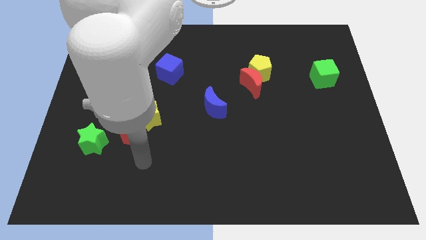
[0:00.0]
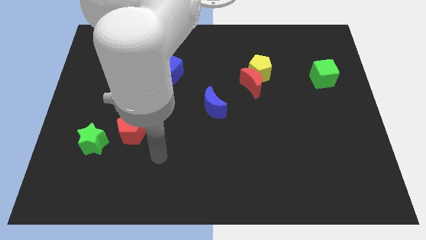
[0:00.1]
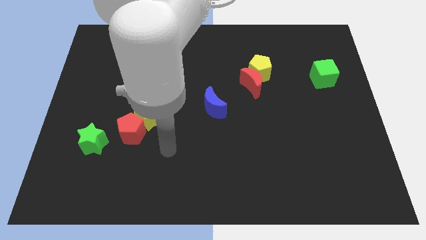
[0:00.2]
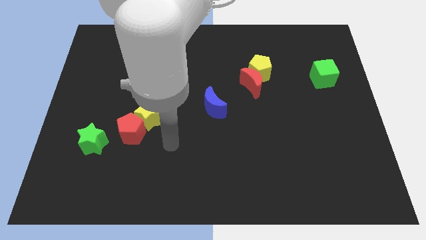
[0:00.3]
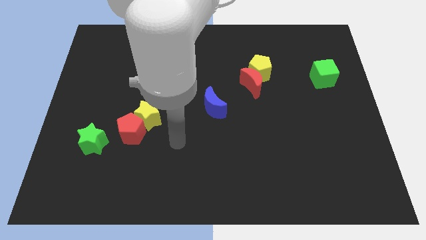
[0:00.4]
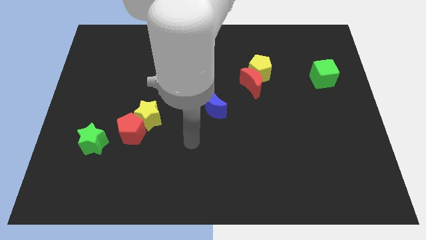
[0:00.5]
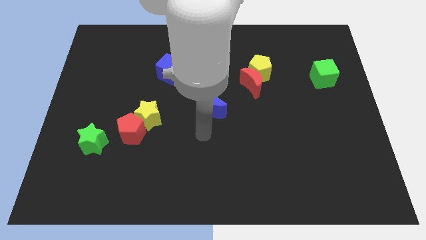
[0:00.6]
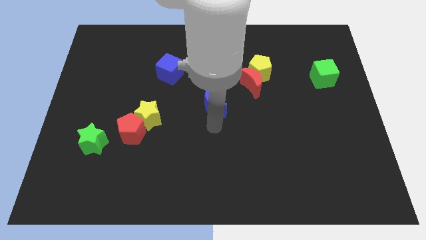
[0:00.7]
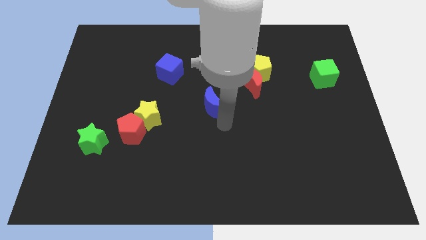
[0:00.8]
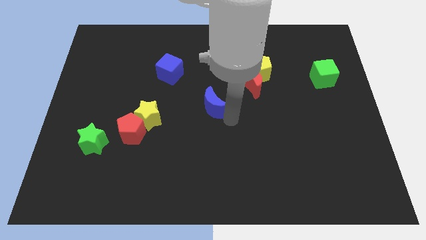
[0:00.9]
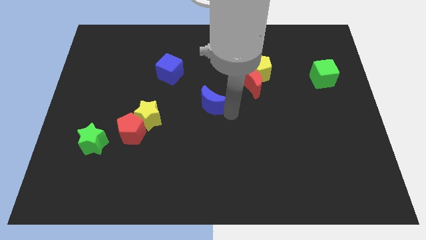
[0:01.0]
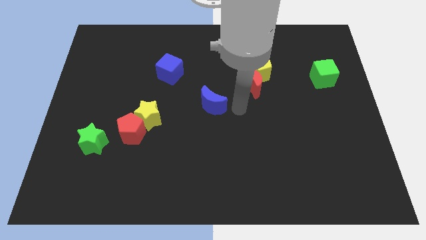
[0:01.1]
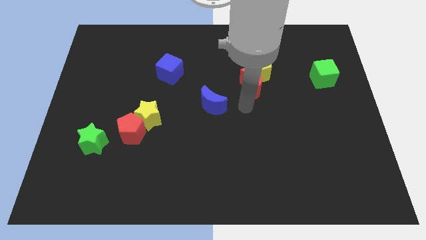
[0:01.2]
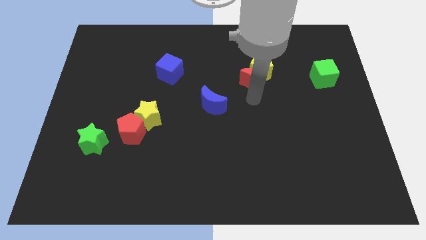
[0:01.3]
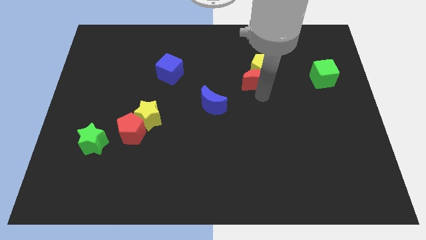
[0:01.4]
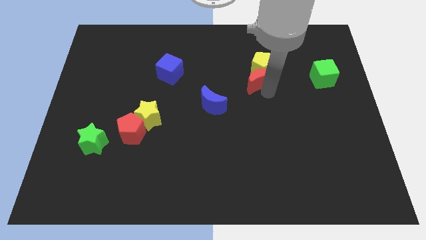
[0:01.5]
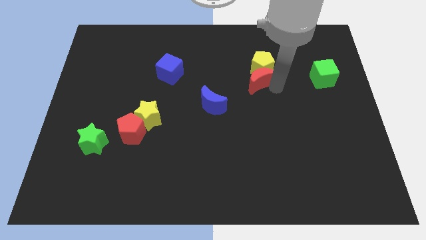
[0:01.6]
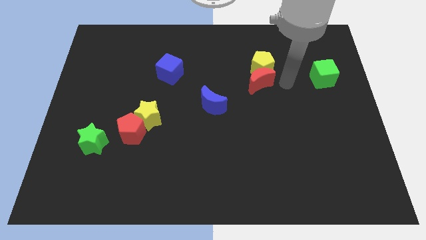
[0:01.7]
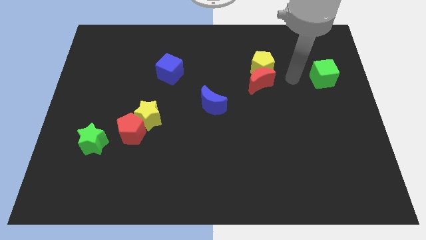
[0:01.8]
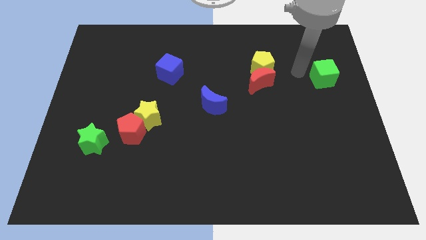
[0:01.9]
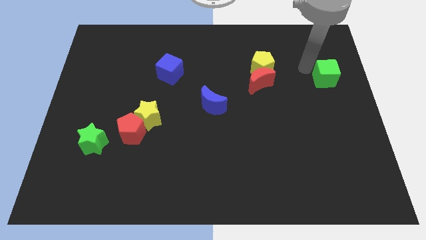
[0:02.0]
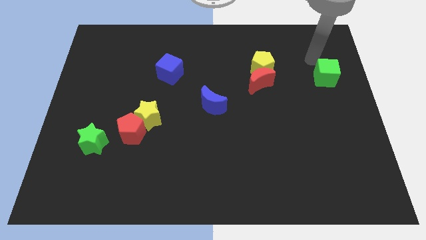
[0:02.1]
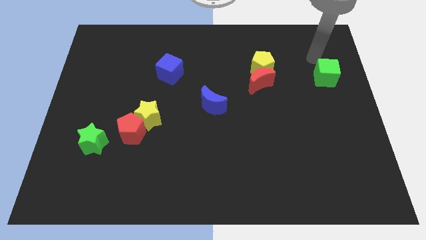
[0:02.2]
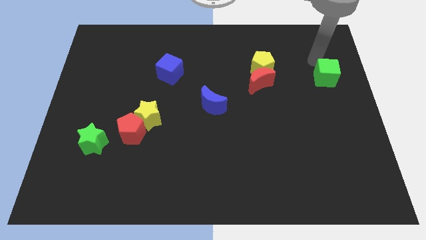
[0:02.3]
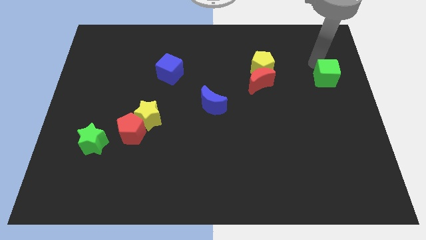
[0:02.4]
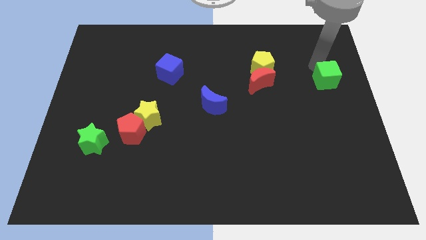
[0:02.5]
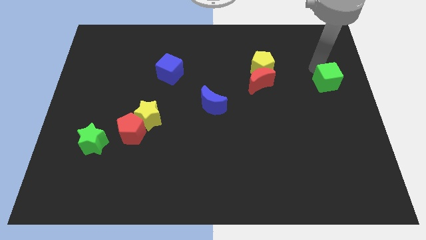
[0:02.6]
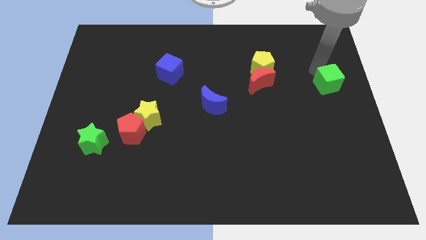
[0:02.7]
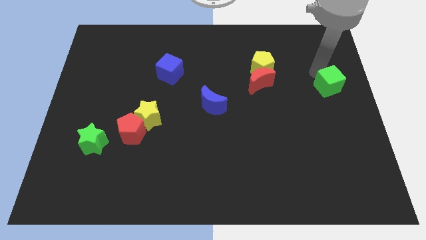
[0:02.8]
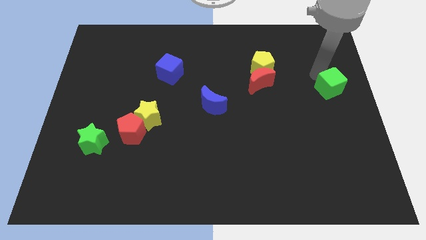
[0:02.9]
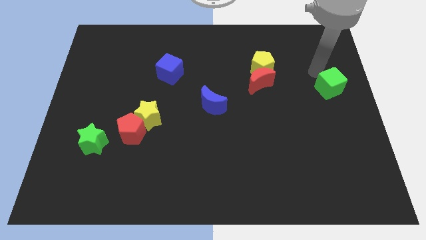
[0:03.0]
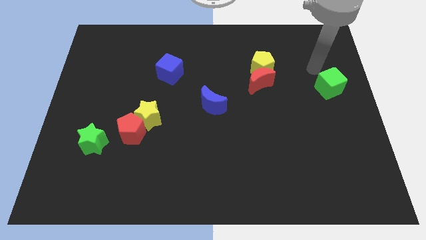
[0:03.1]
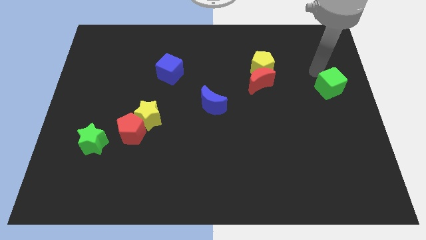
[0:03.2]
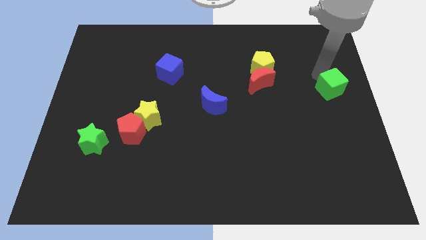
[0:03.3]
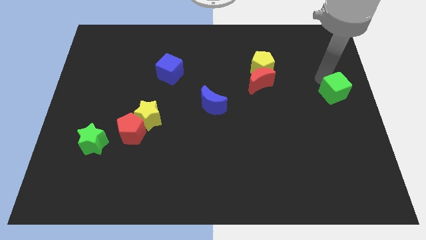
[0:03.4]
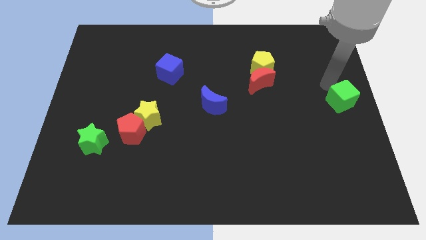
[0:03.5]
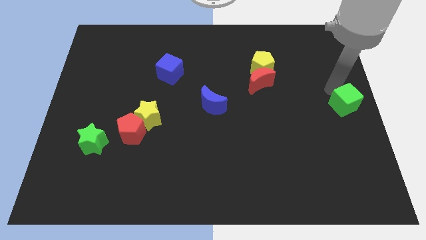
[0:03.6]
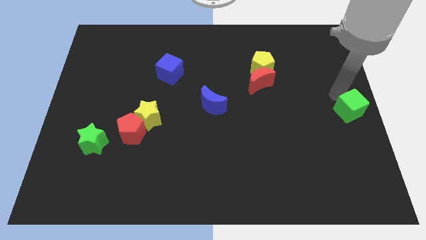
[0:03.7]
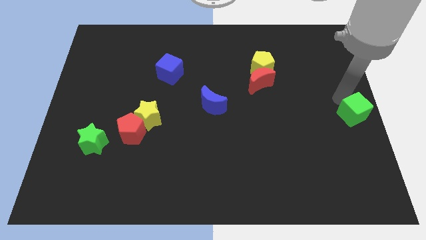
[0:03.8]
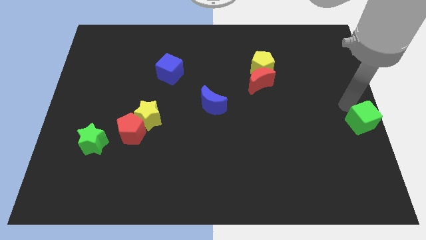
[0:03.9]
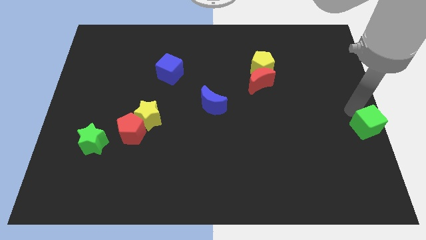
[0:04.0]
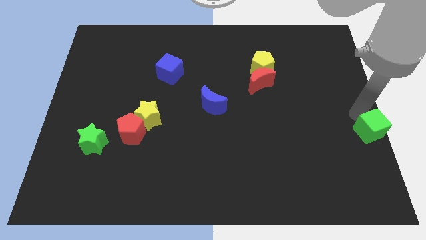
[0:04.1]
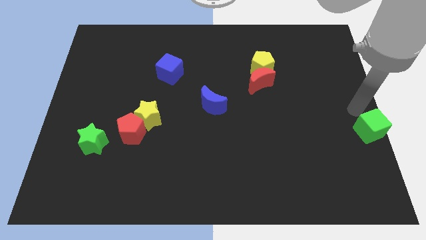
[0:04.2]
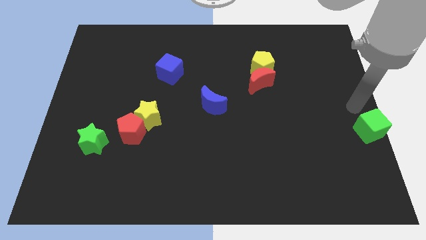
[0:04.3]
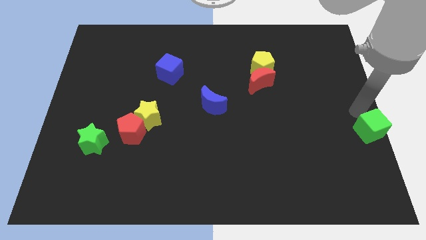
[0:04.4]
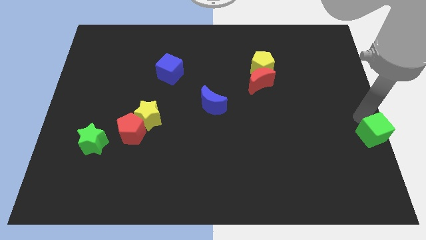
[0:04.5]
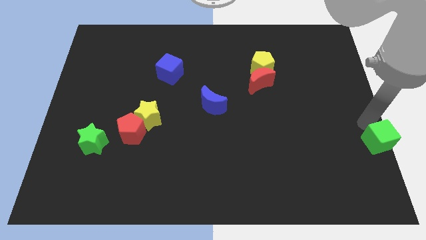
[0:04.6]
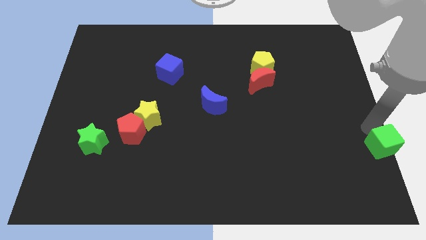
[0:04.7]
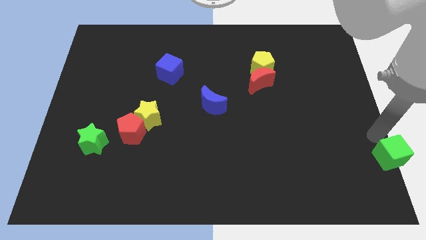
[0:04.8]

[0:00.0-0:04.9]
slide the green cube to the lower right corner

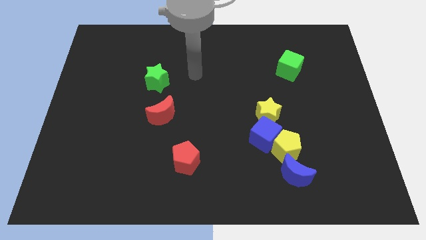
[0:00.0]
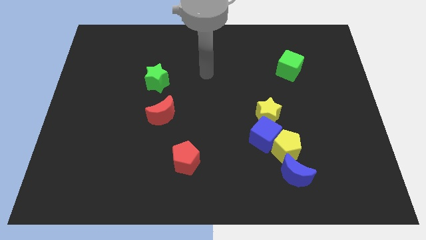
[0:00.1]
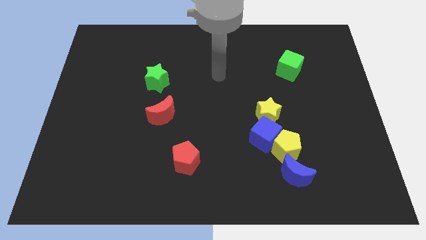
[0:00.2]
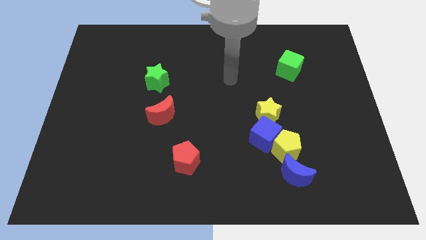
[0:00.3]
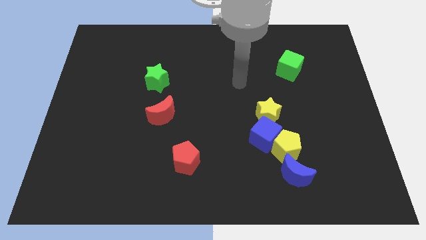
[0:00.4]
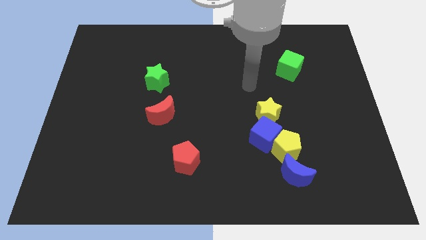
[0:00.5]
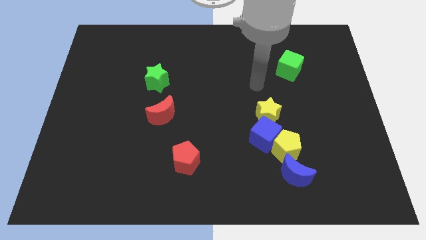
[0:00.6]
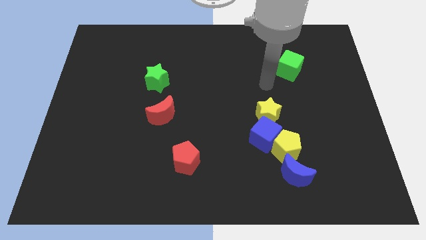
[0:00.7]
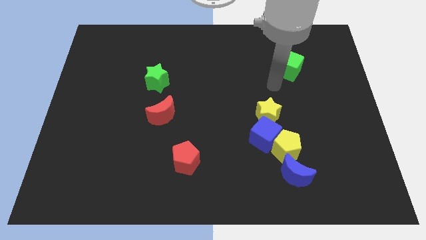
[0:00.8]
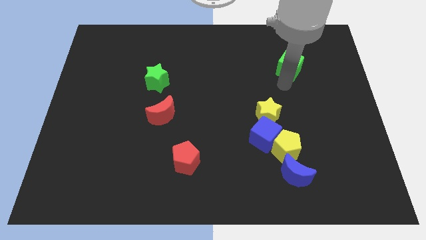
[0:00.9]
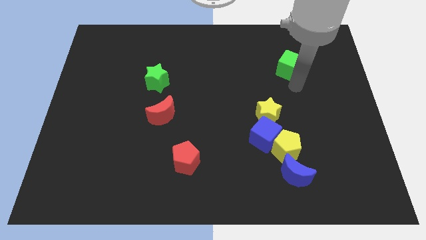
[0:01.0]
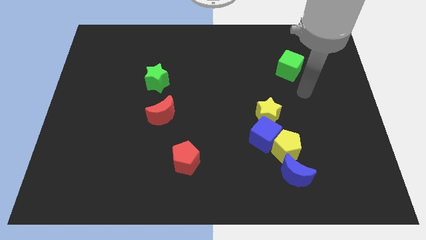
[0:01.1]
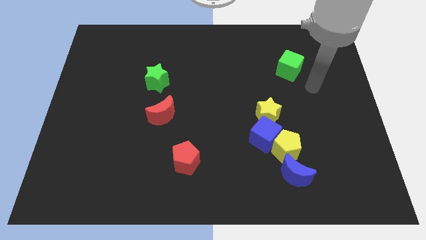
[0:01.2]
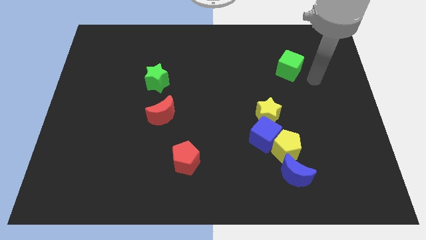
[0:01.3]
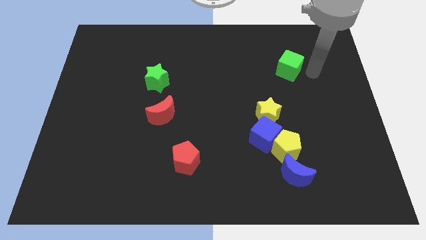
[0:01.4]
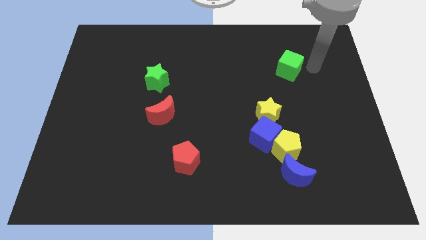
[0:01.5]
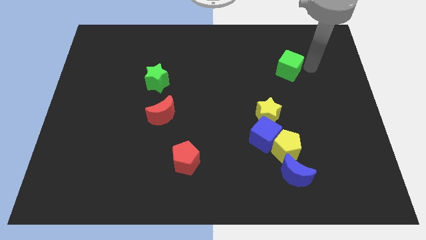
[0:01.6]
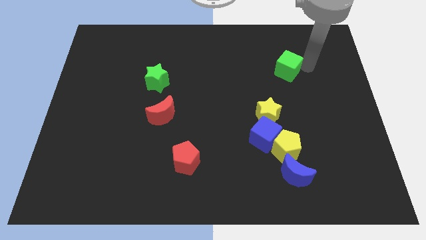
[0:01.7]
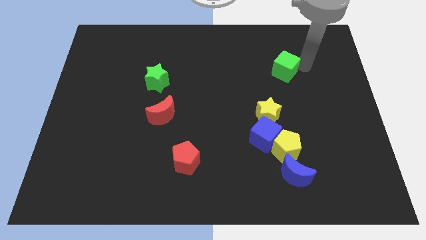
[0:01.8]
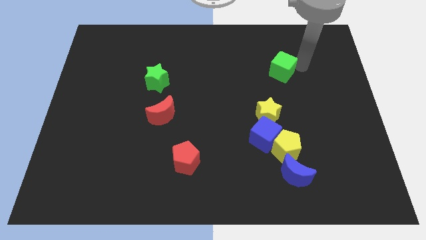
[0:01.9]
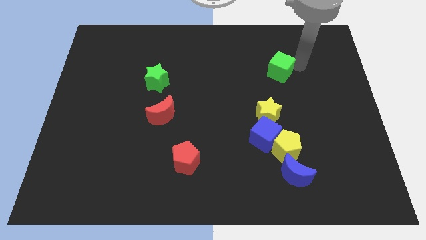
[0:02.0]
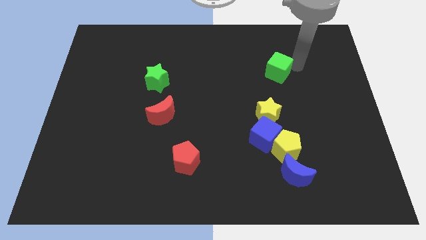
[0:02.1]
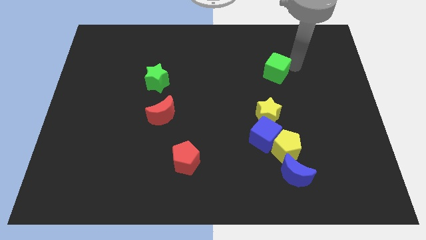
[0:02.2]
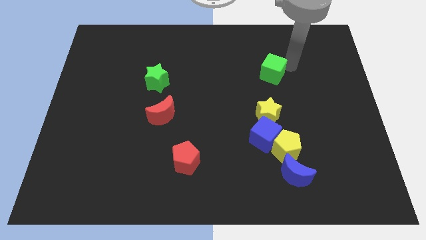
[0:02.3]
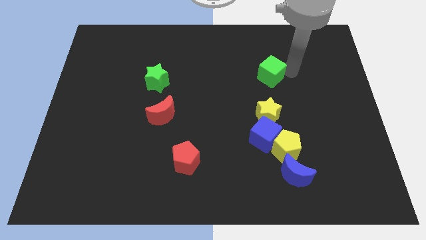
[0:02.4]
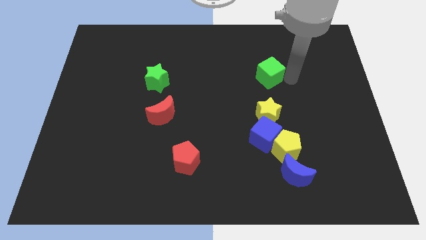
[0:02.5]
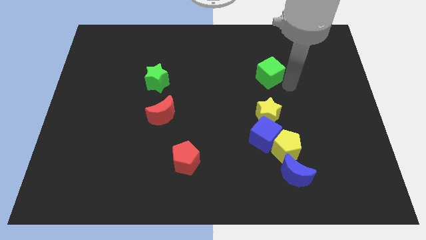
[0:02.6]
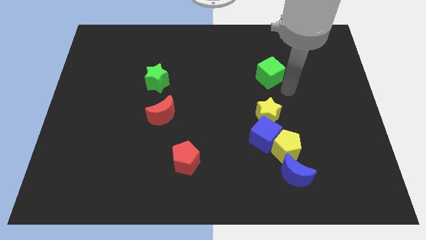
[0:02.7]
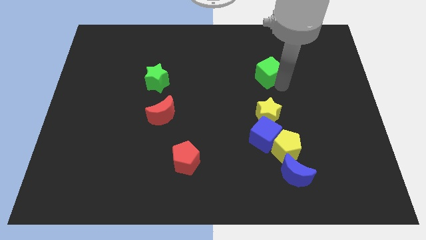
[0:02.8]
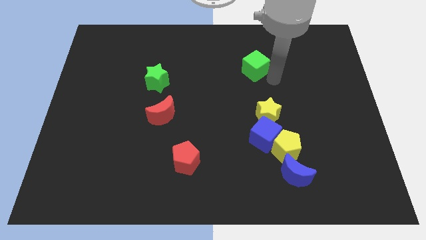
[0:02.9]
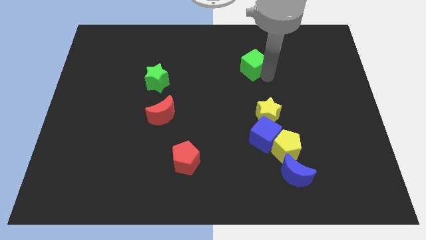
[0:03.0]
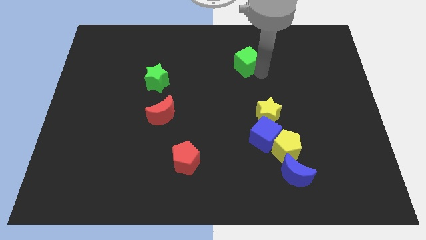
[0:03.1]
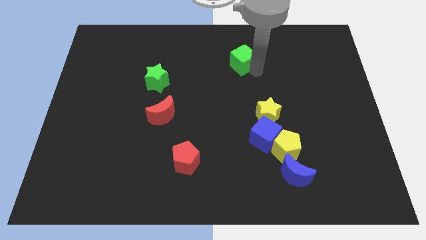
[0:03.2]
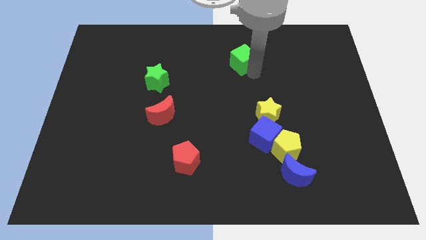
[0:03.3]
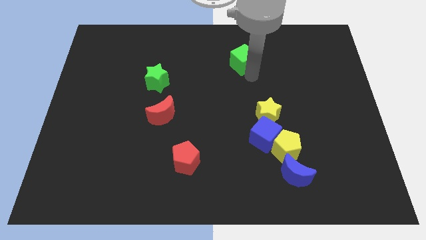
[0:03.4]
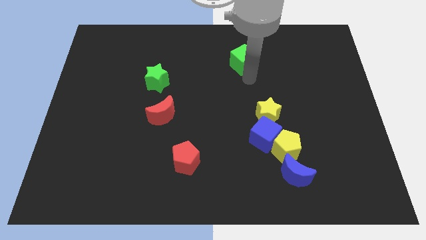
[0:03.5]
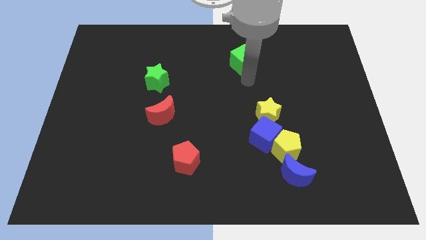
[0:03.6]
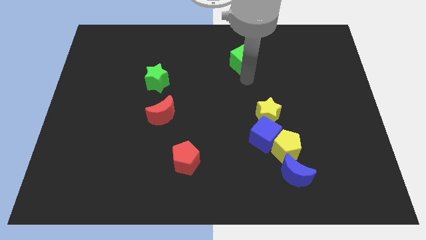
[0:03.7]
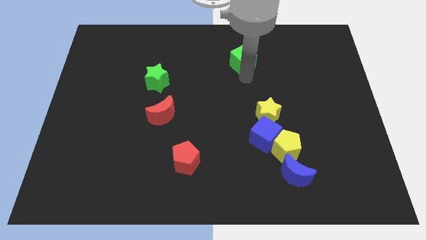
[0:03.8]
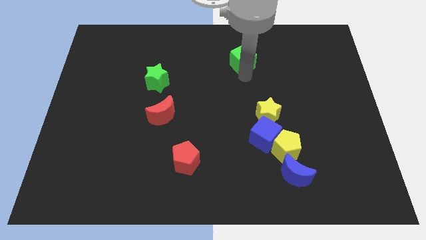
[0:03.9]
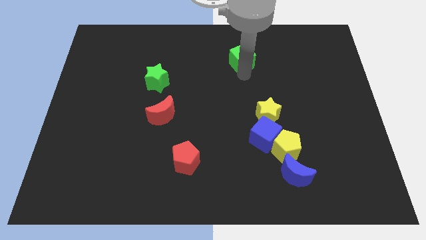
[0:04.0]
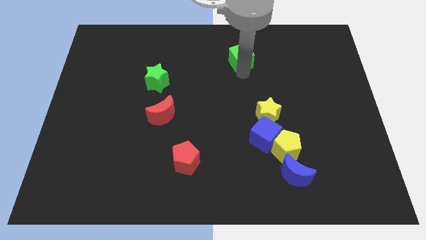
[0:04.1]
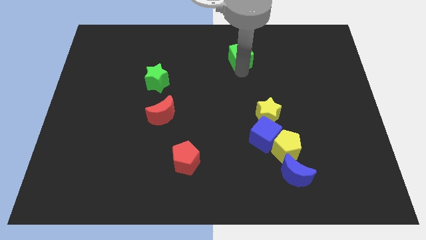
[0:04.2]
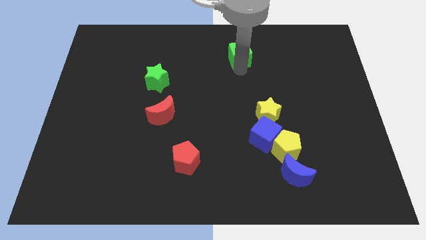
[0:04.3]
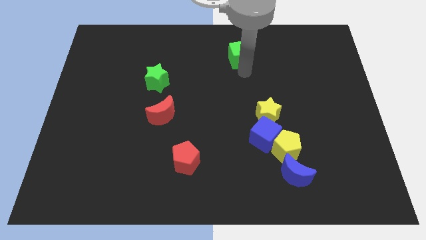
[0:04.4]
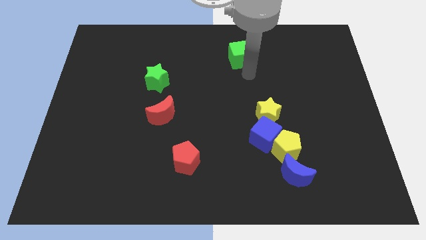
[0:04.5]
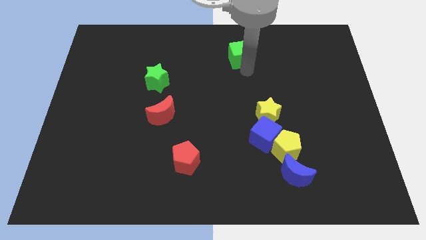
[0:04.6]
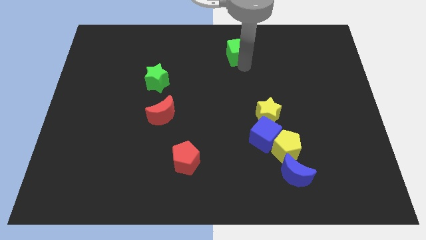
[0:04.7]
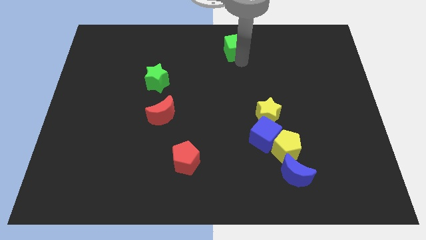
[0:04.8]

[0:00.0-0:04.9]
slide the green cube to the top
